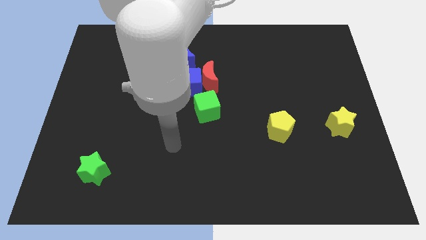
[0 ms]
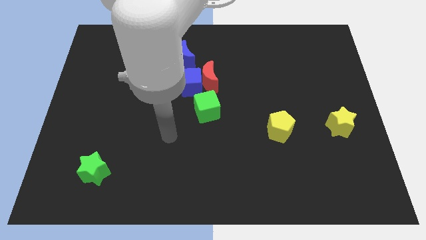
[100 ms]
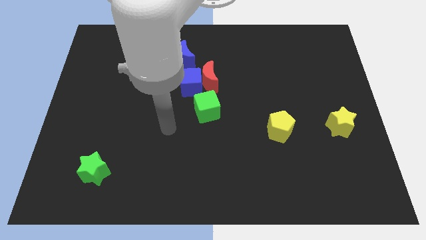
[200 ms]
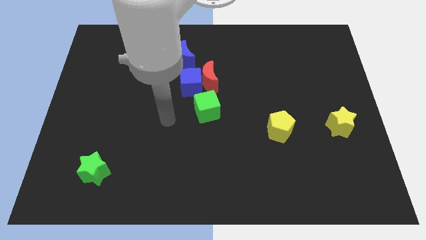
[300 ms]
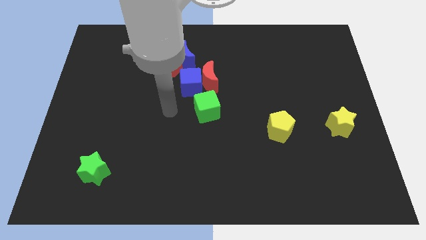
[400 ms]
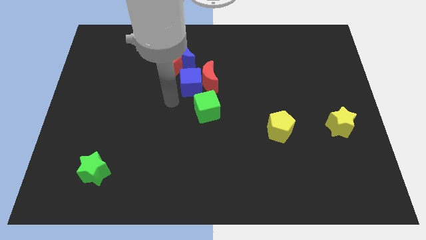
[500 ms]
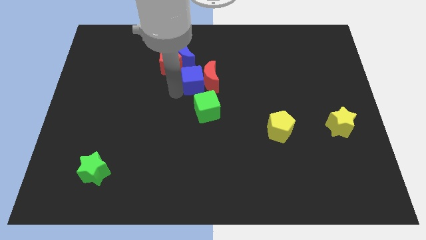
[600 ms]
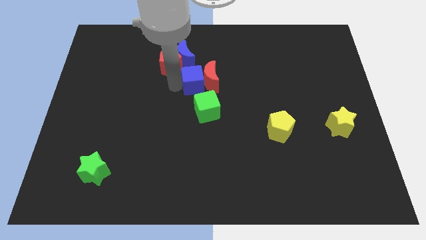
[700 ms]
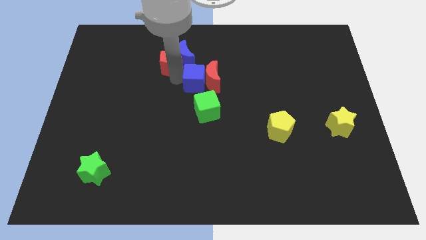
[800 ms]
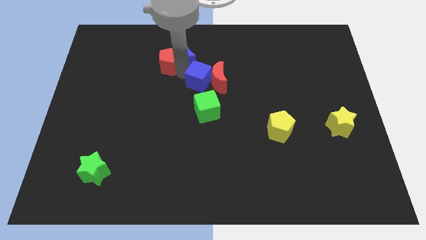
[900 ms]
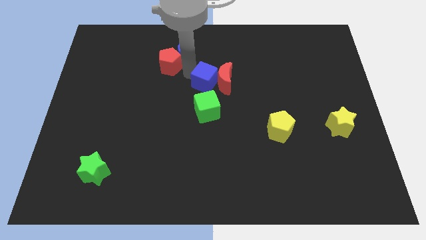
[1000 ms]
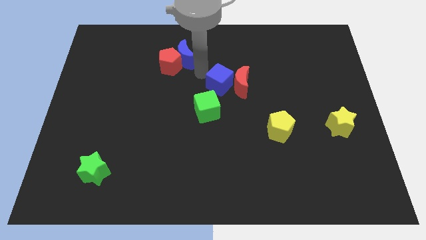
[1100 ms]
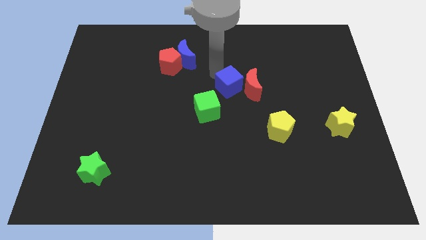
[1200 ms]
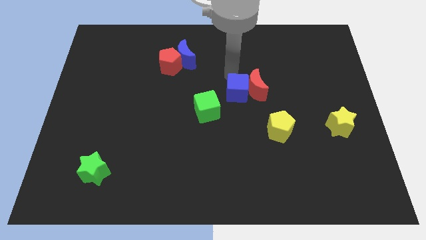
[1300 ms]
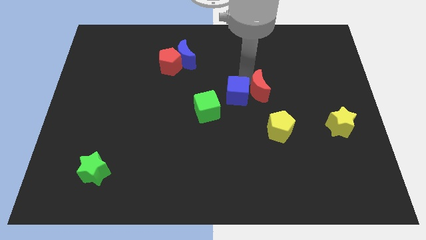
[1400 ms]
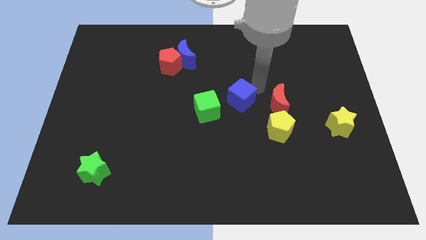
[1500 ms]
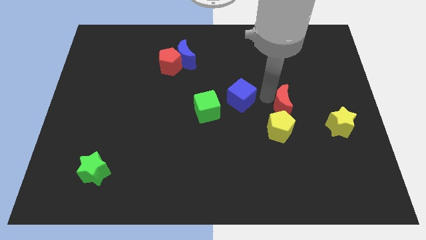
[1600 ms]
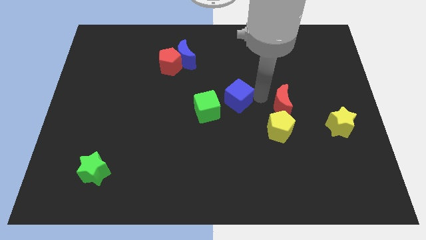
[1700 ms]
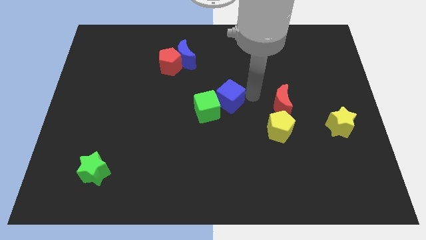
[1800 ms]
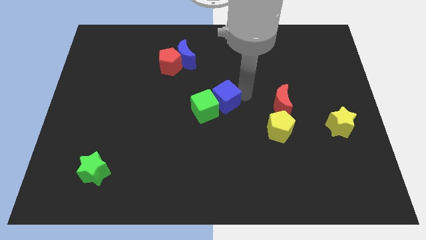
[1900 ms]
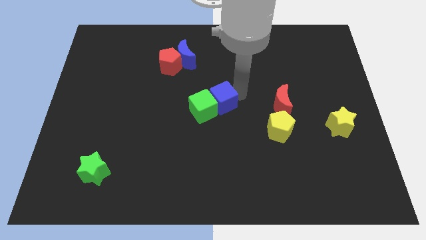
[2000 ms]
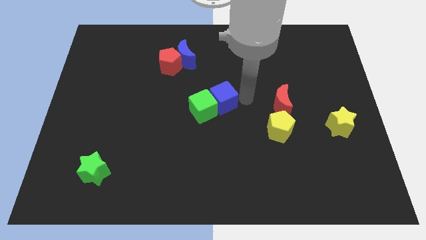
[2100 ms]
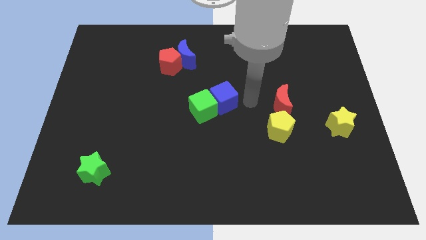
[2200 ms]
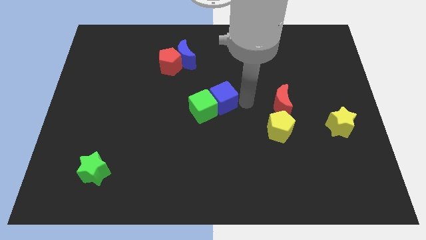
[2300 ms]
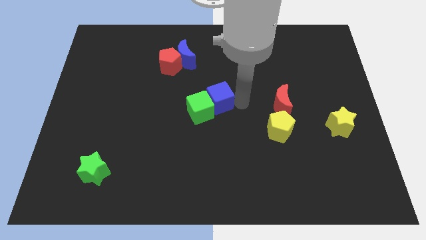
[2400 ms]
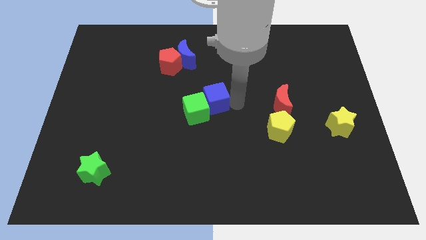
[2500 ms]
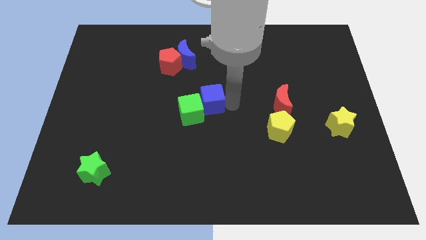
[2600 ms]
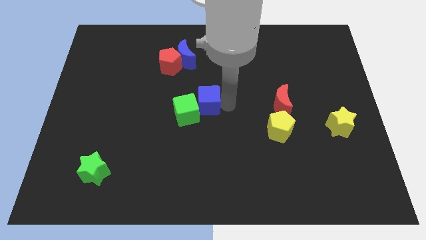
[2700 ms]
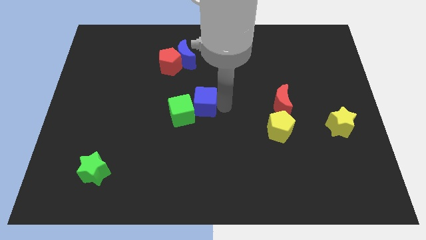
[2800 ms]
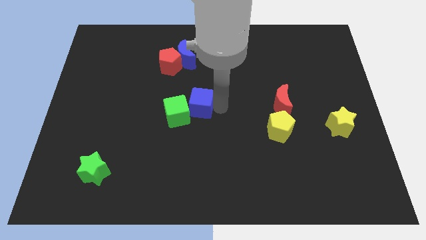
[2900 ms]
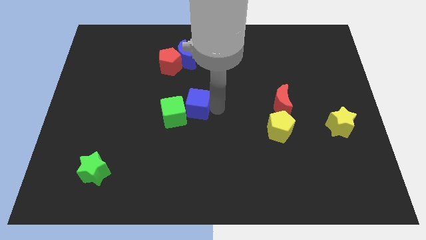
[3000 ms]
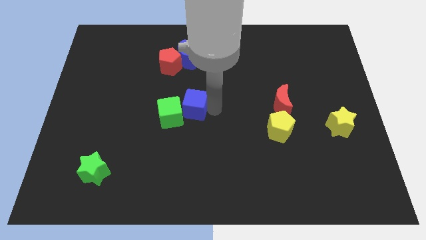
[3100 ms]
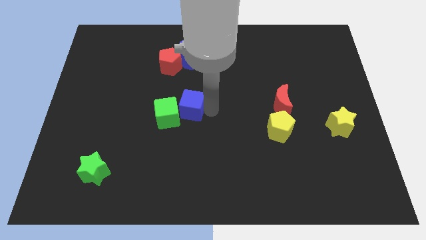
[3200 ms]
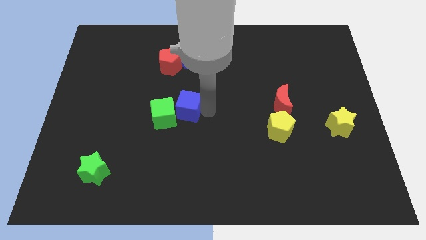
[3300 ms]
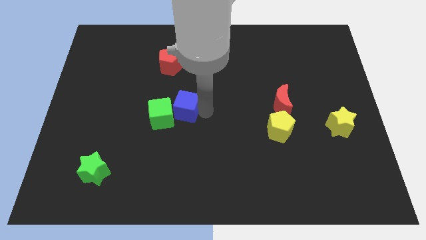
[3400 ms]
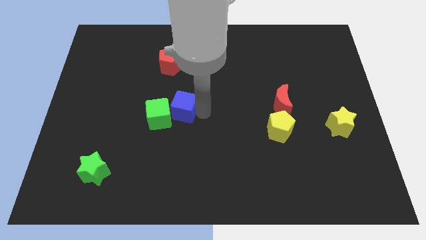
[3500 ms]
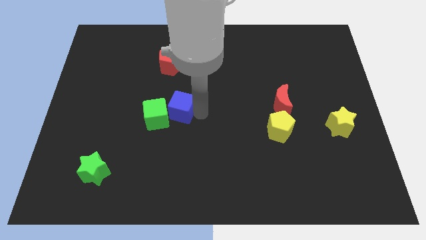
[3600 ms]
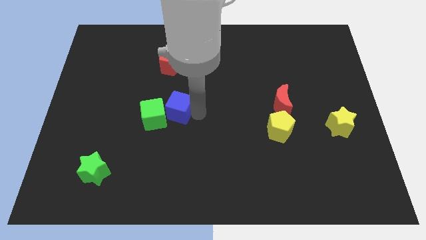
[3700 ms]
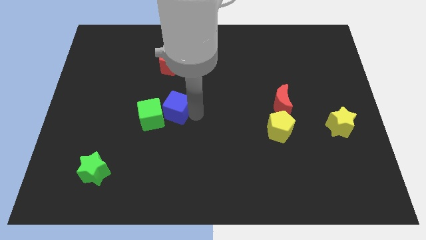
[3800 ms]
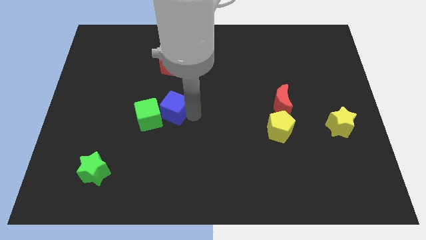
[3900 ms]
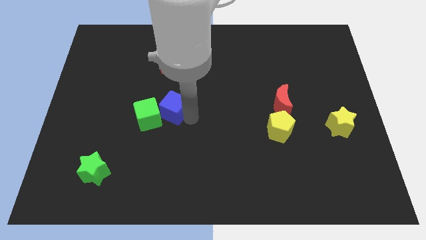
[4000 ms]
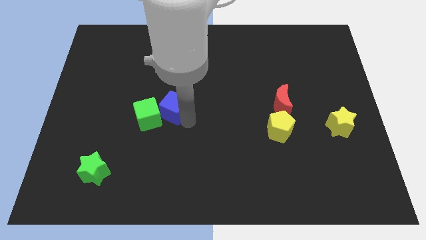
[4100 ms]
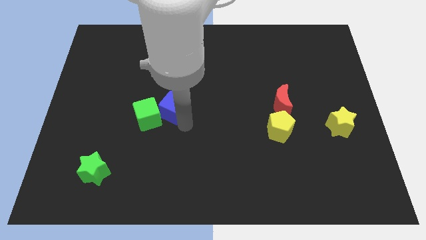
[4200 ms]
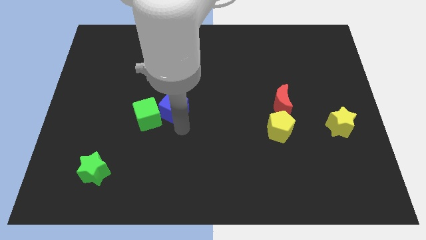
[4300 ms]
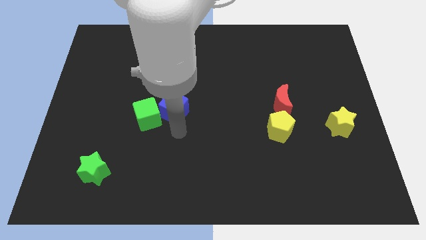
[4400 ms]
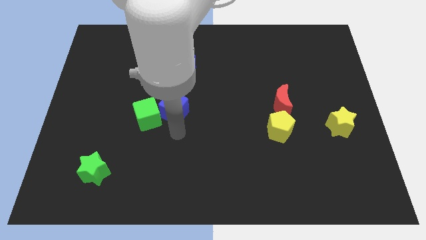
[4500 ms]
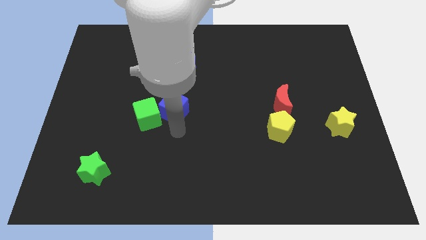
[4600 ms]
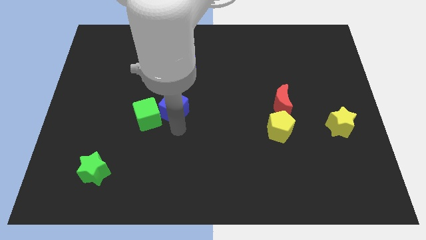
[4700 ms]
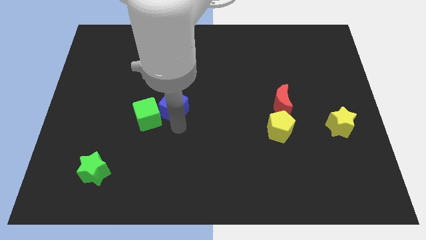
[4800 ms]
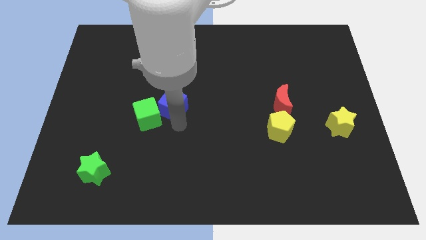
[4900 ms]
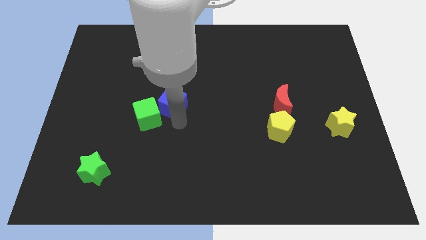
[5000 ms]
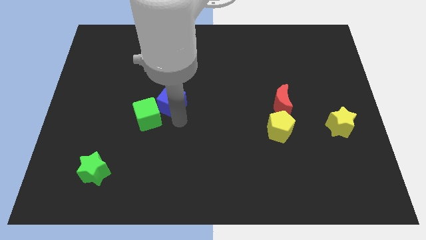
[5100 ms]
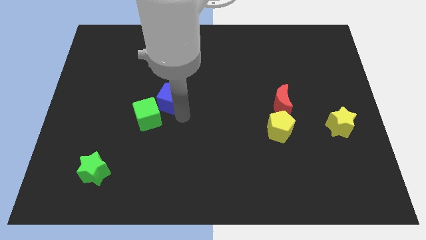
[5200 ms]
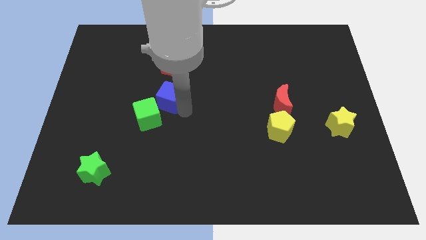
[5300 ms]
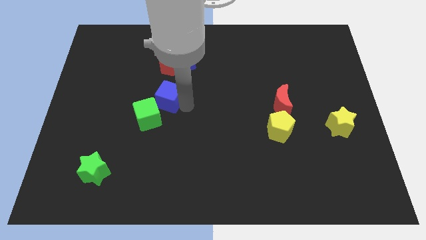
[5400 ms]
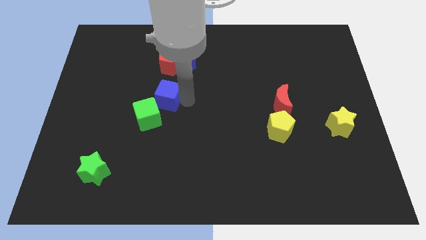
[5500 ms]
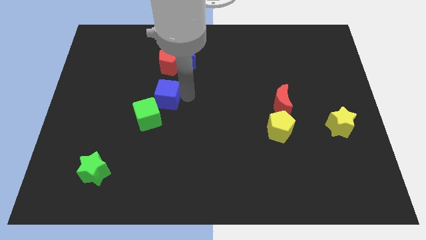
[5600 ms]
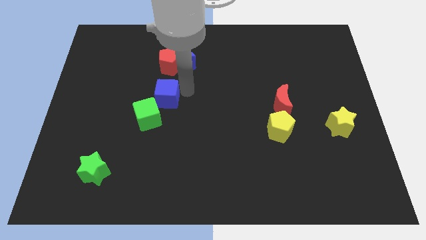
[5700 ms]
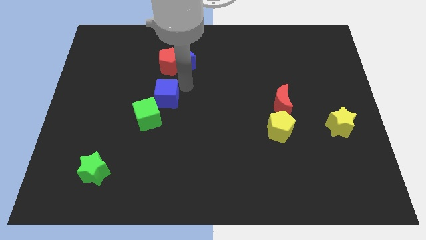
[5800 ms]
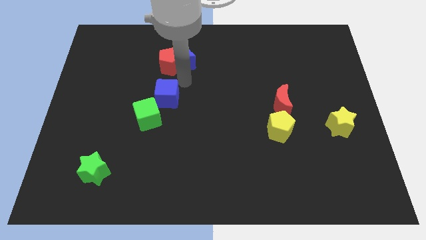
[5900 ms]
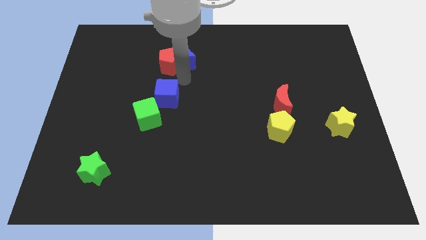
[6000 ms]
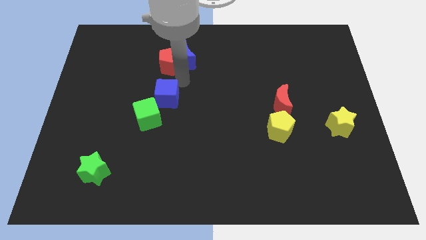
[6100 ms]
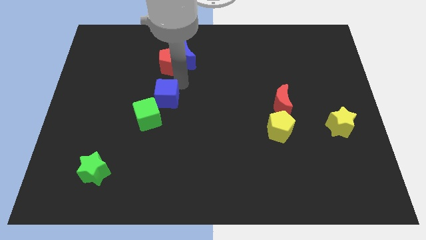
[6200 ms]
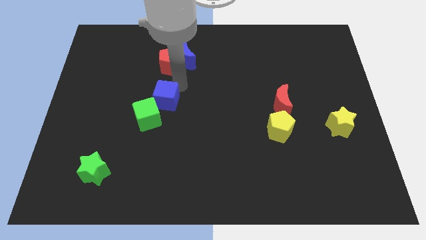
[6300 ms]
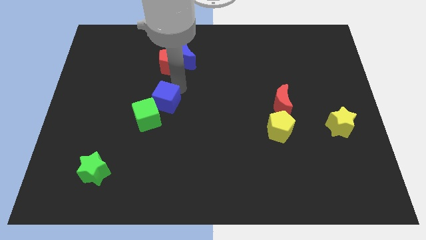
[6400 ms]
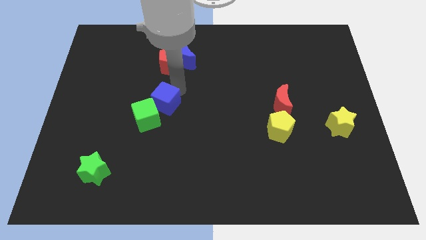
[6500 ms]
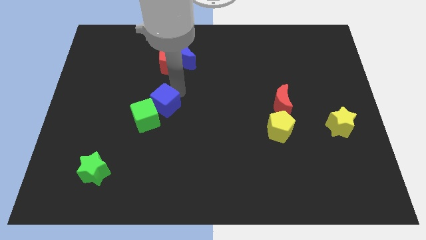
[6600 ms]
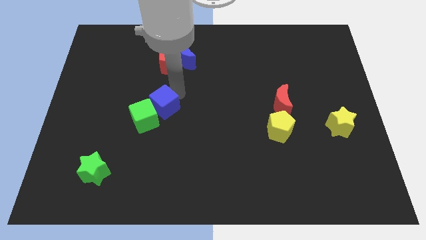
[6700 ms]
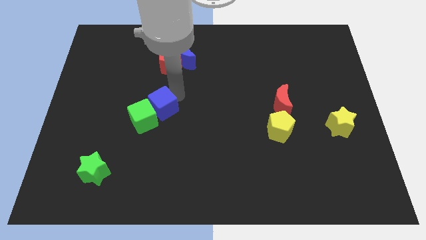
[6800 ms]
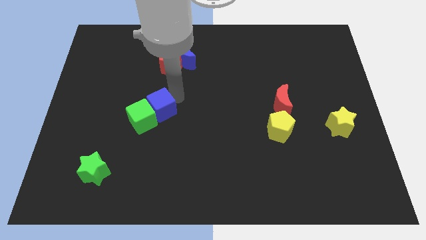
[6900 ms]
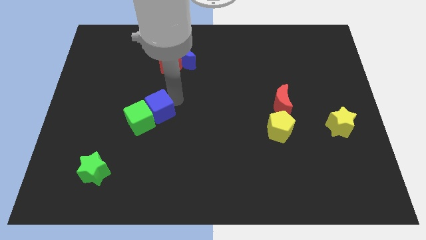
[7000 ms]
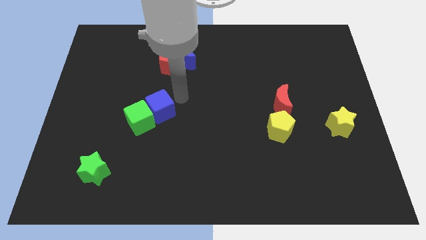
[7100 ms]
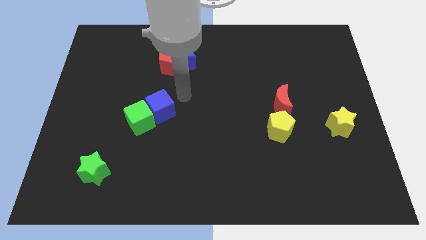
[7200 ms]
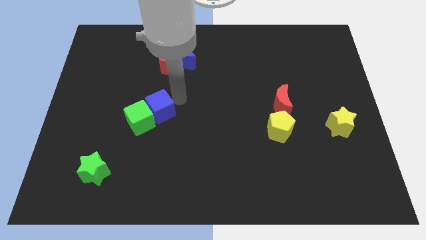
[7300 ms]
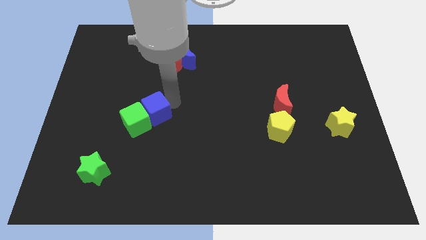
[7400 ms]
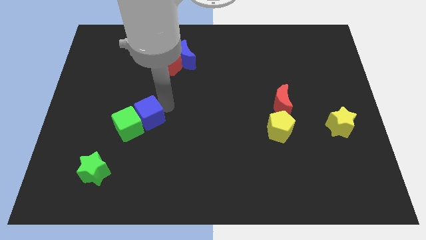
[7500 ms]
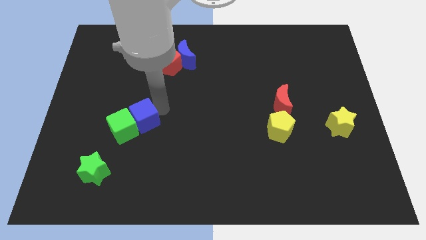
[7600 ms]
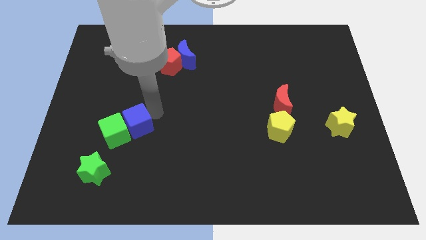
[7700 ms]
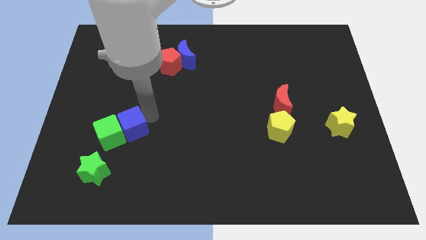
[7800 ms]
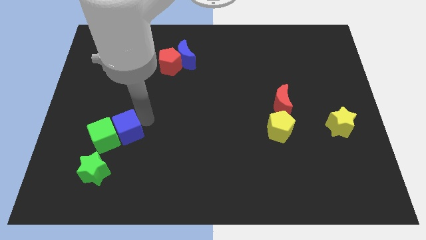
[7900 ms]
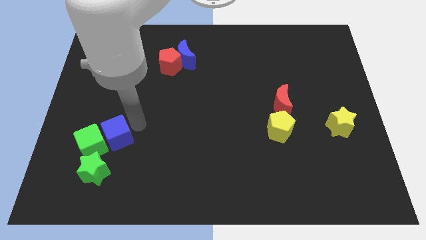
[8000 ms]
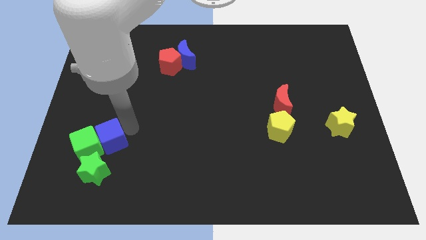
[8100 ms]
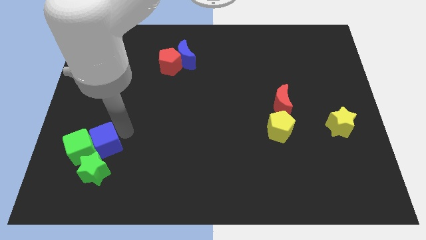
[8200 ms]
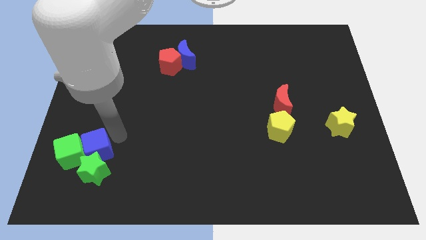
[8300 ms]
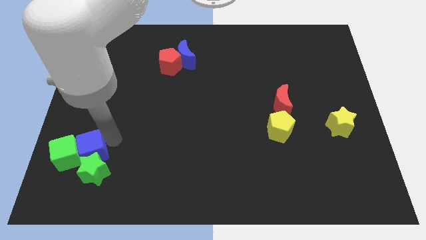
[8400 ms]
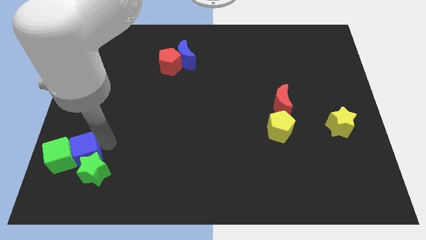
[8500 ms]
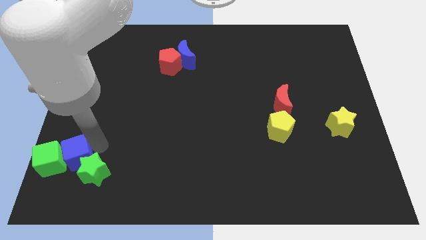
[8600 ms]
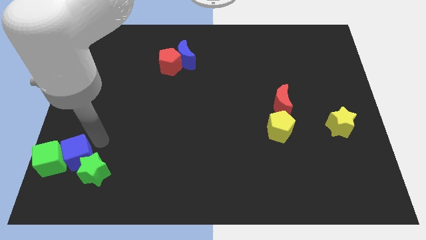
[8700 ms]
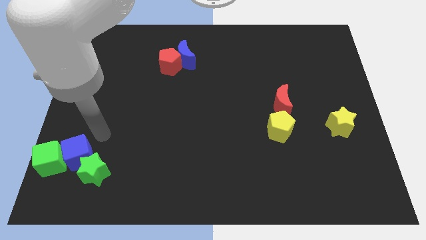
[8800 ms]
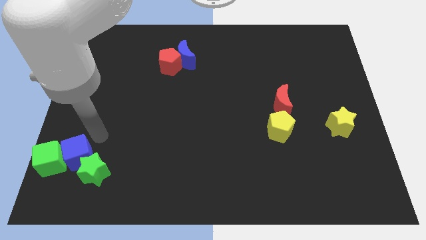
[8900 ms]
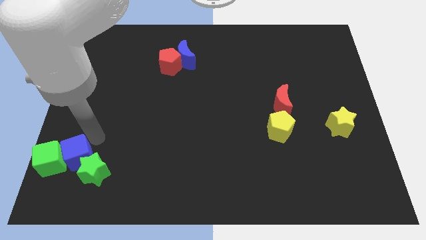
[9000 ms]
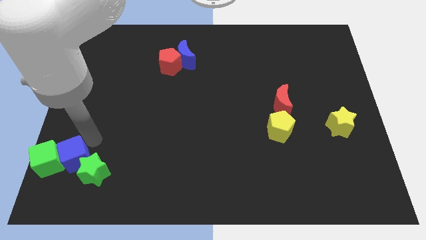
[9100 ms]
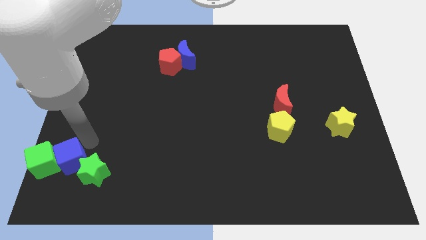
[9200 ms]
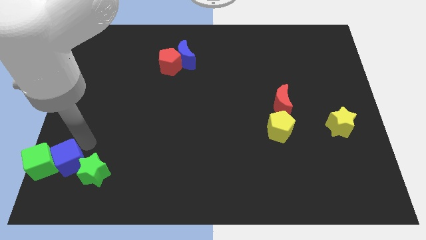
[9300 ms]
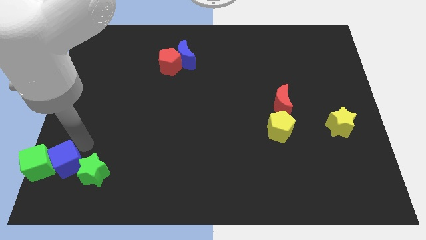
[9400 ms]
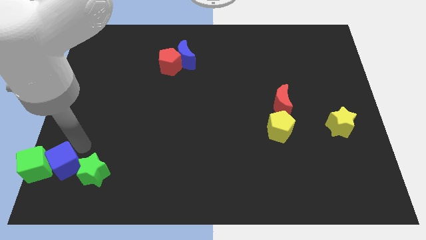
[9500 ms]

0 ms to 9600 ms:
move the blue cube to the bottom left of the board
